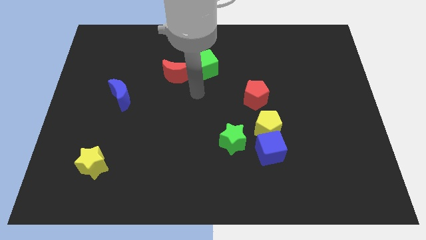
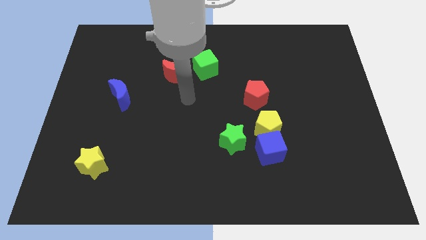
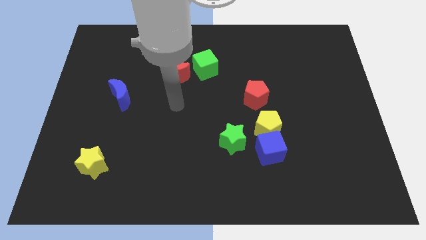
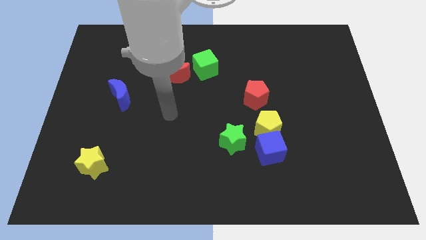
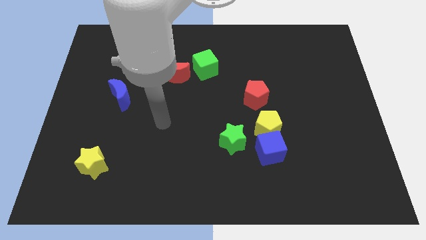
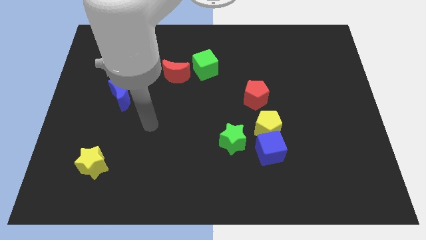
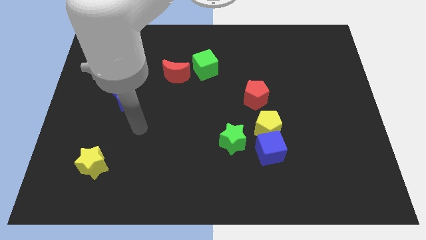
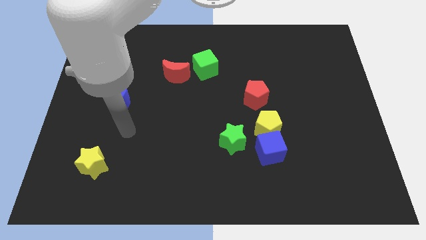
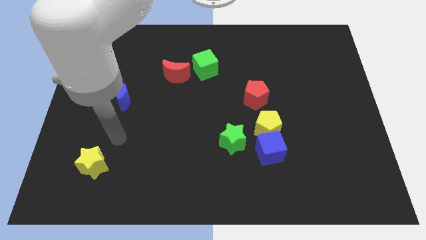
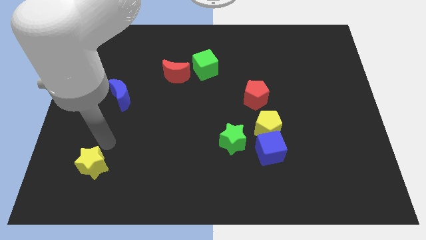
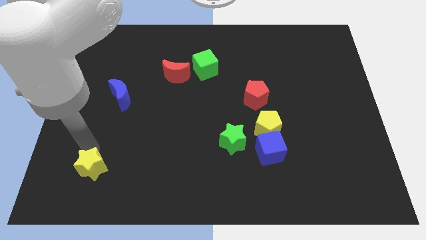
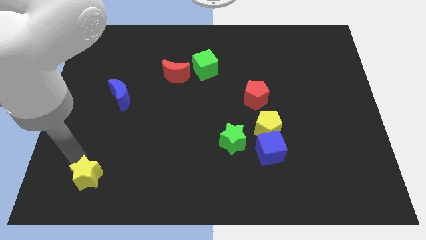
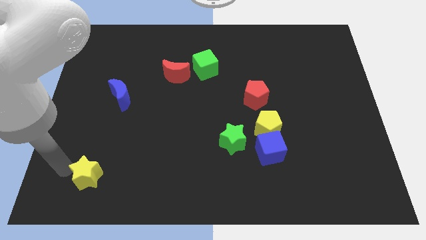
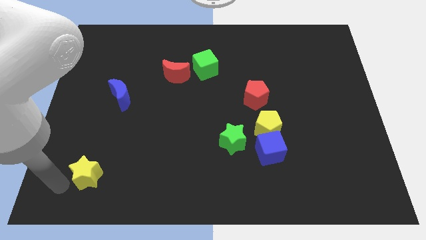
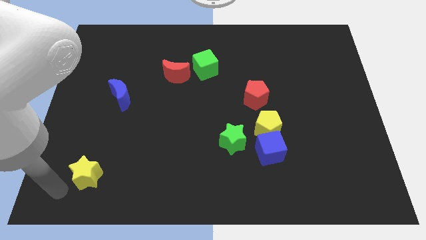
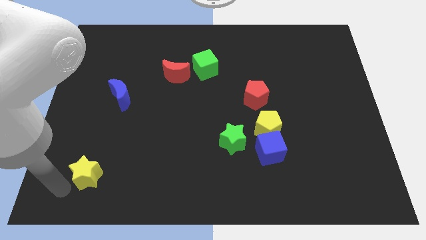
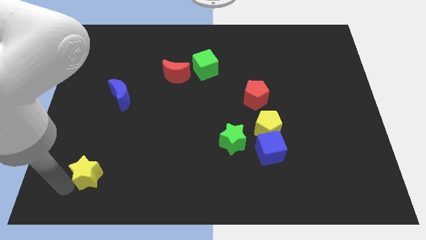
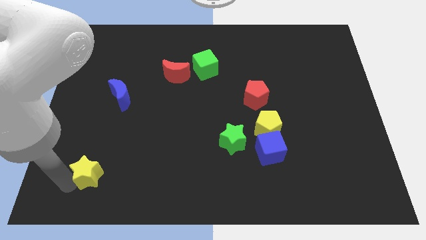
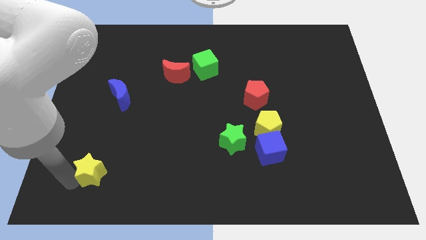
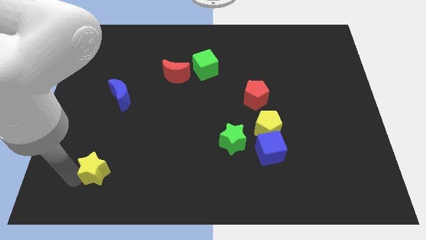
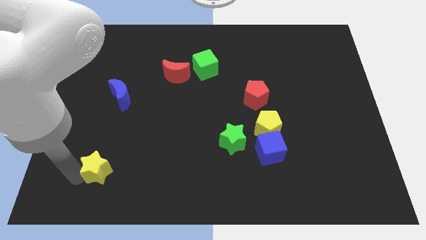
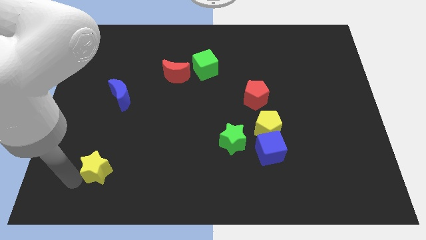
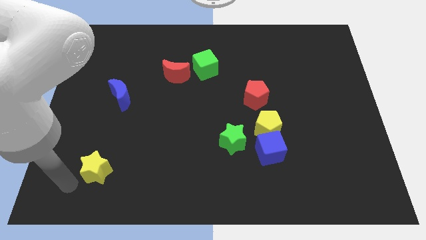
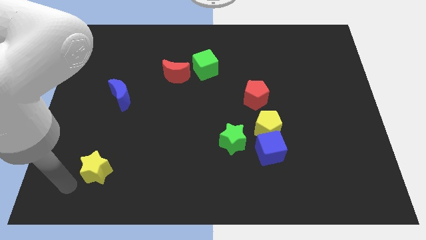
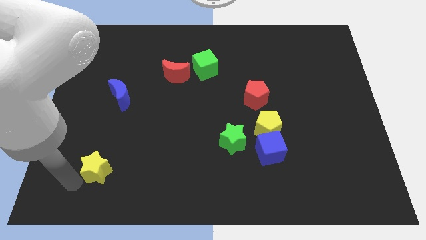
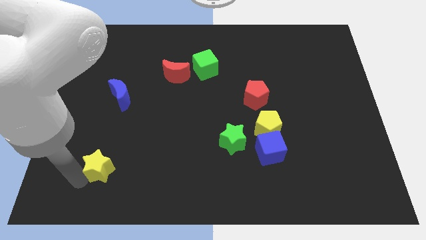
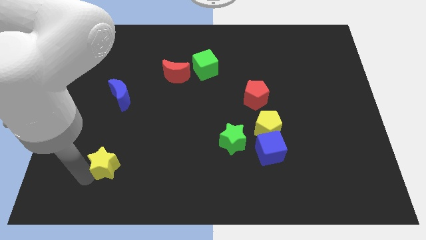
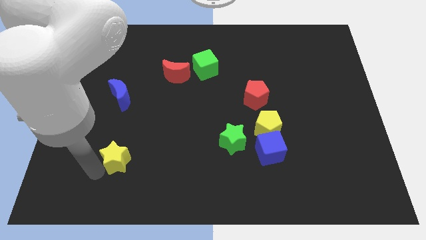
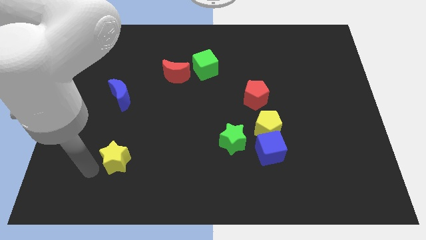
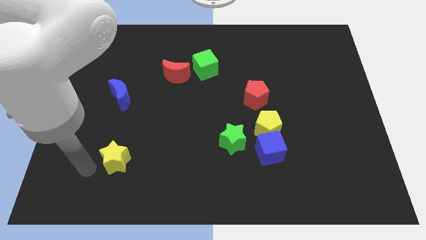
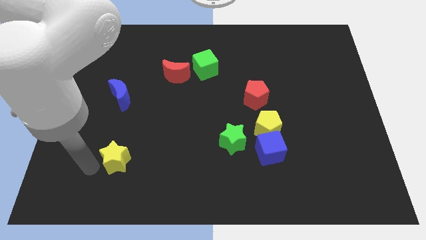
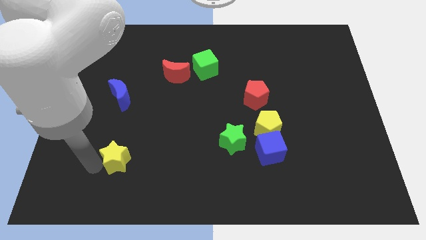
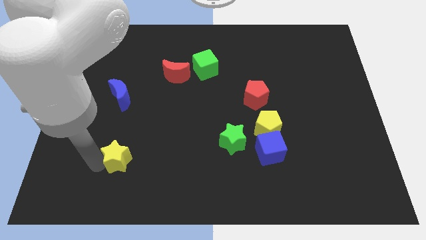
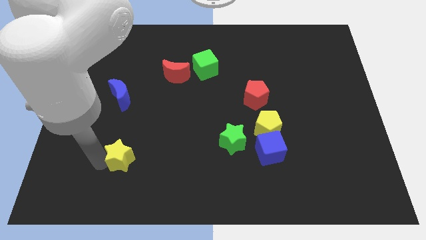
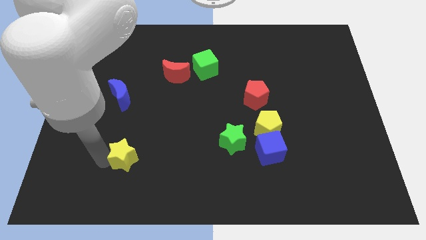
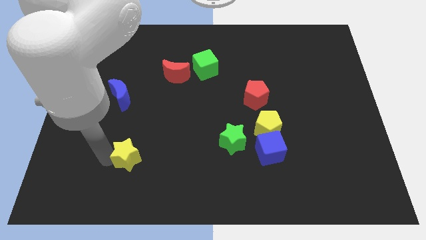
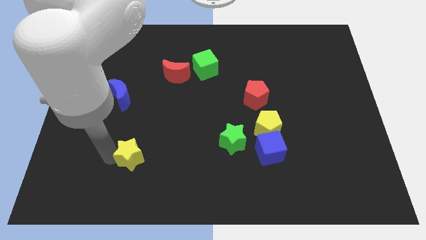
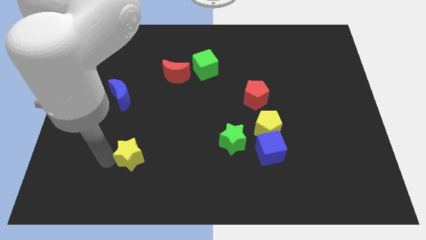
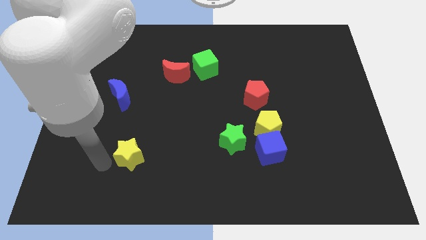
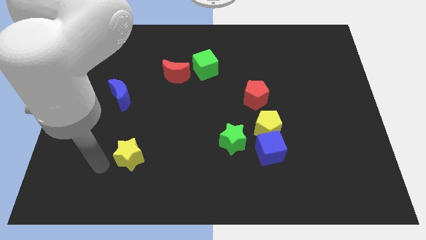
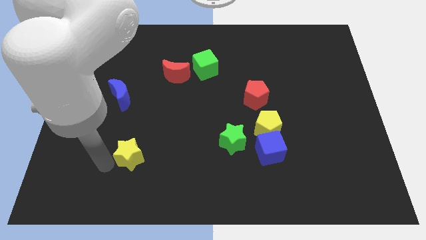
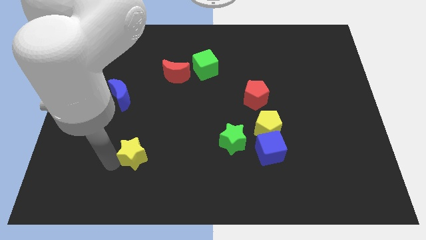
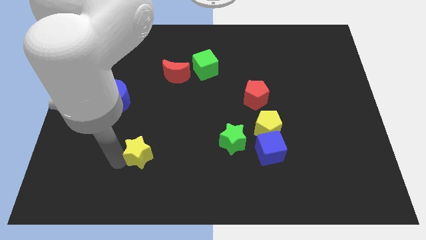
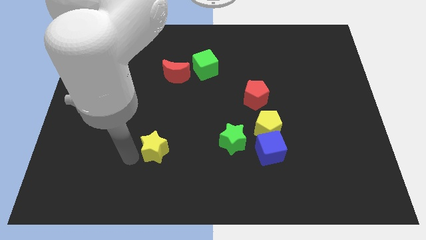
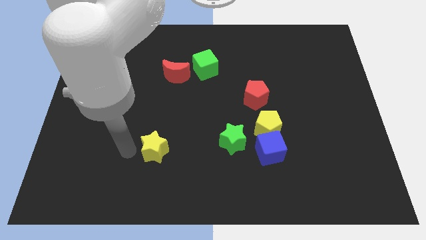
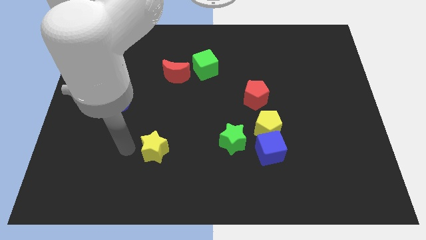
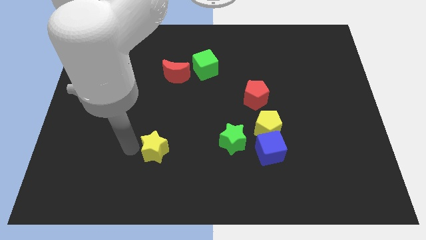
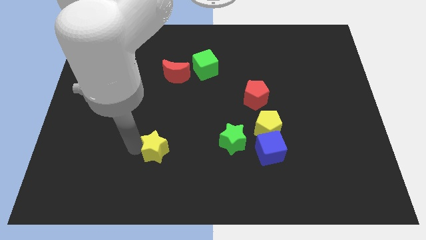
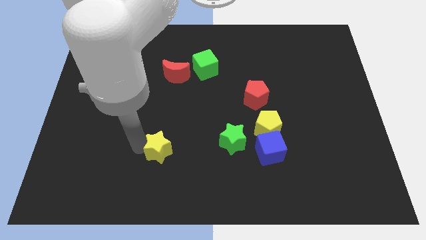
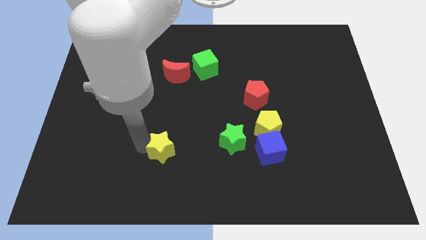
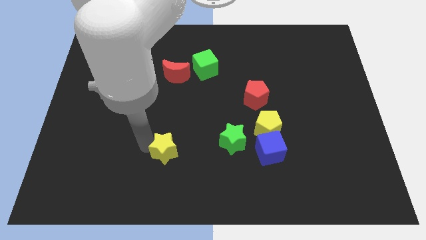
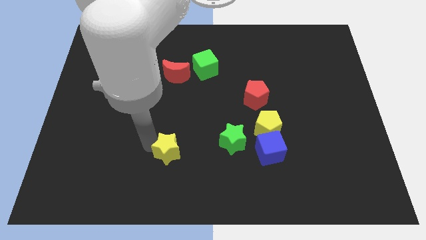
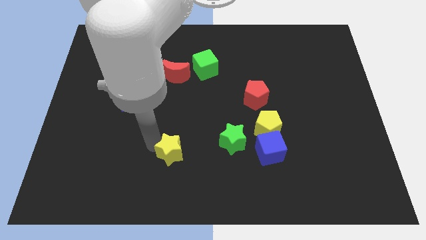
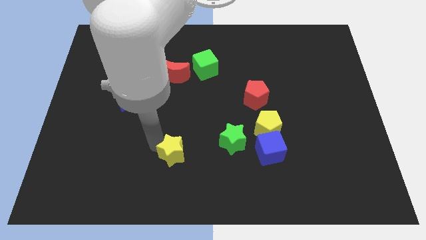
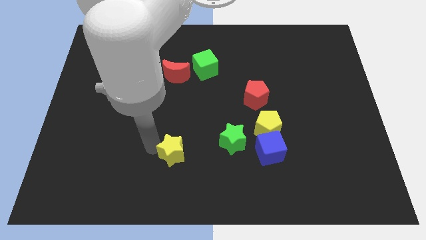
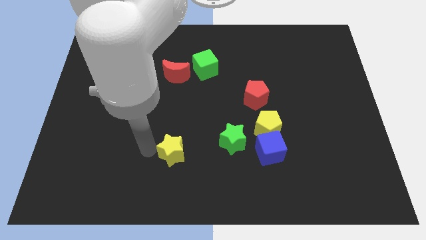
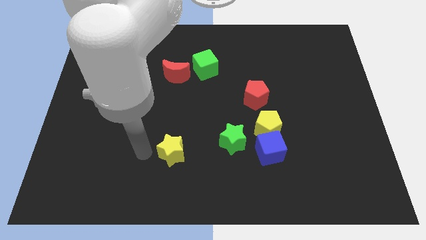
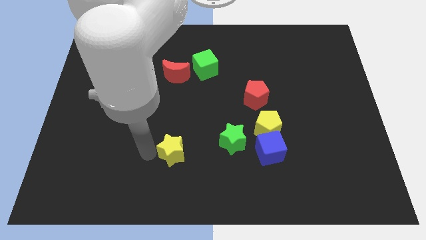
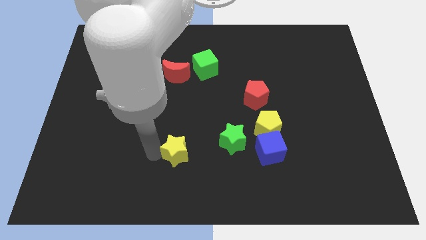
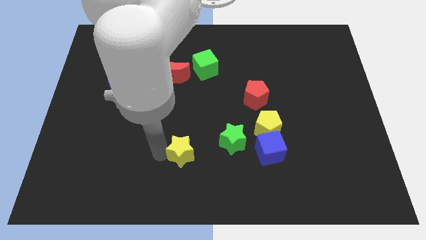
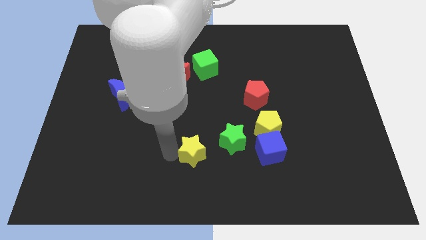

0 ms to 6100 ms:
move the yellow star right

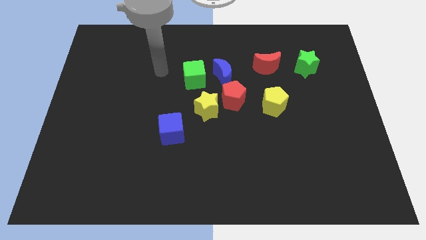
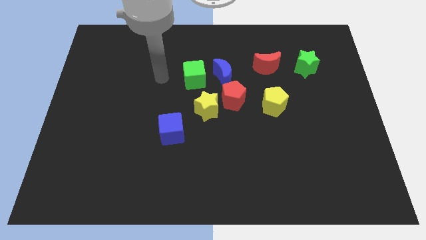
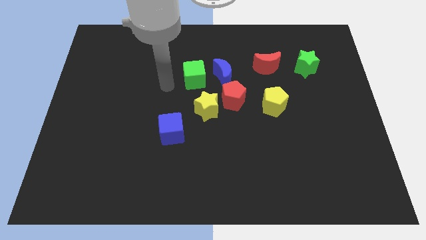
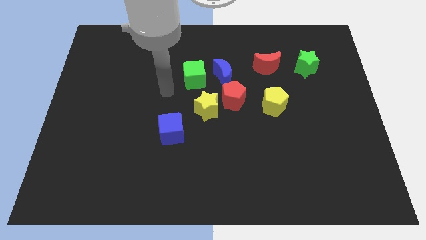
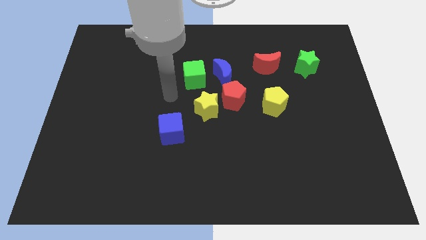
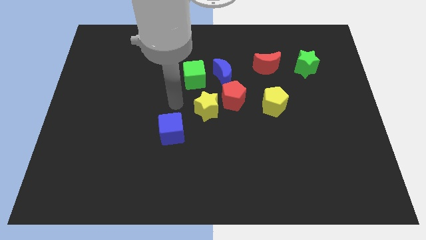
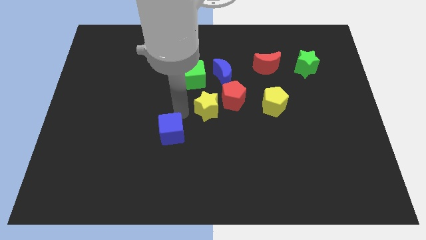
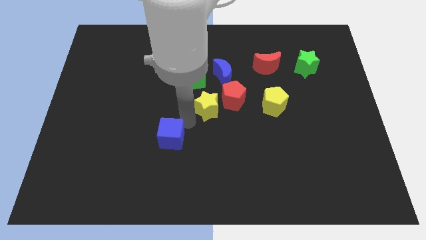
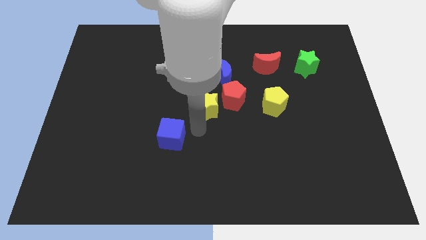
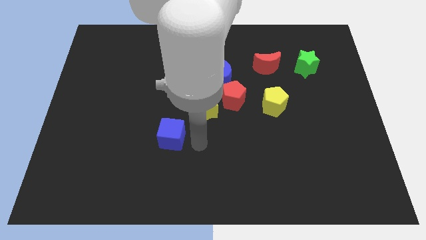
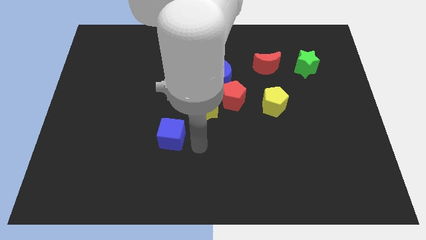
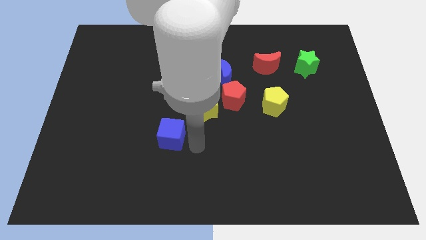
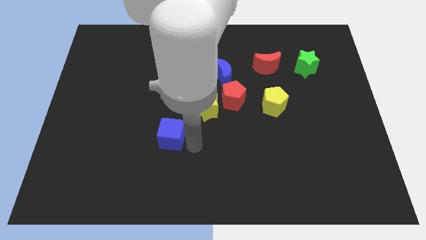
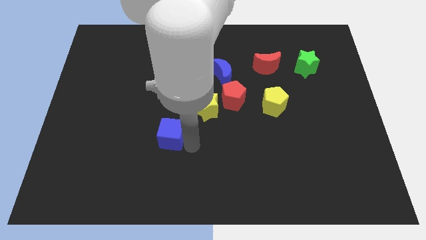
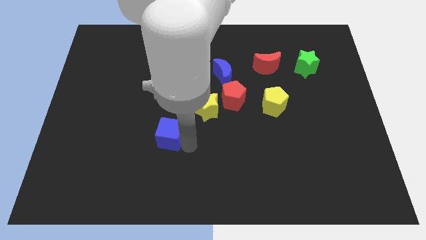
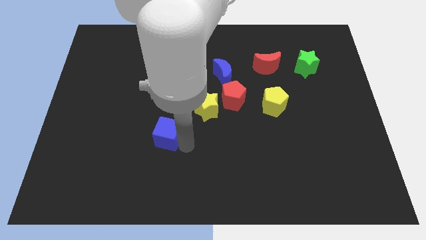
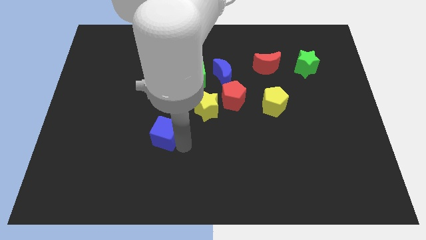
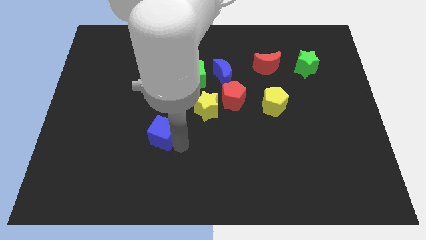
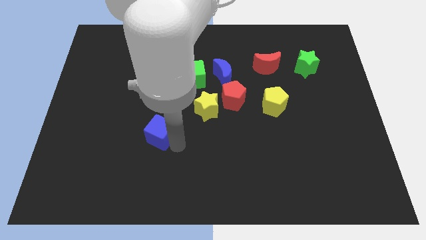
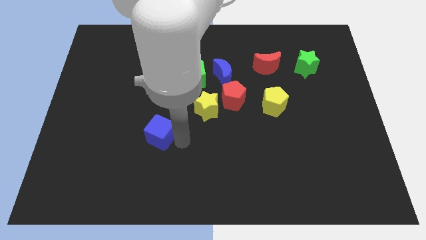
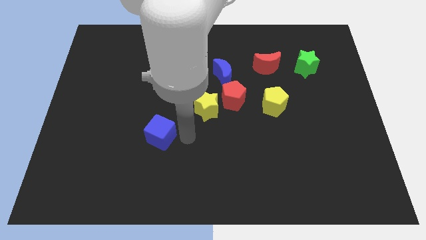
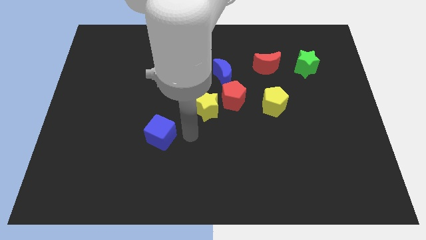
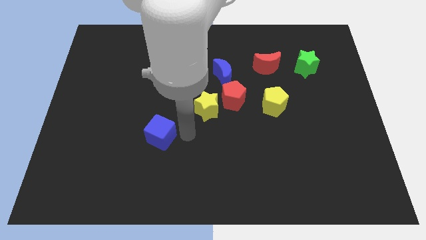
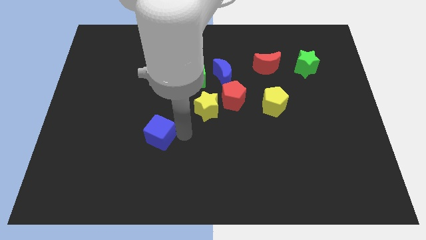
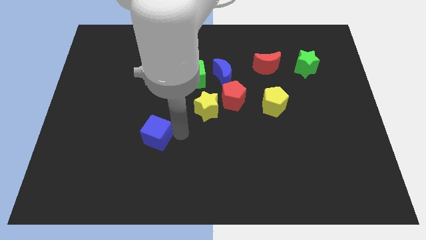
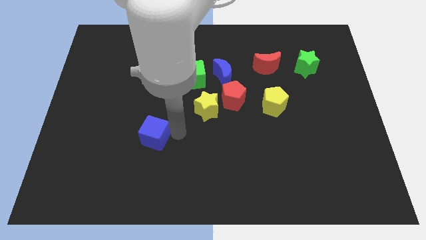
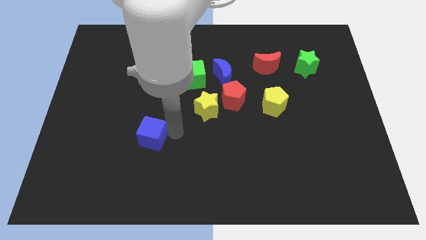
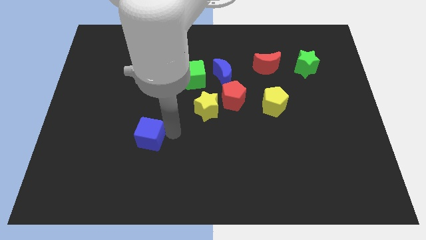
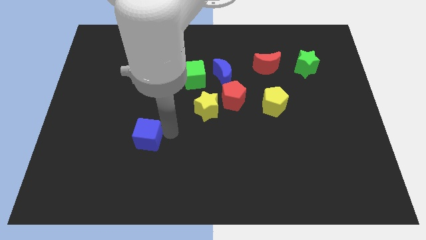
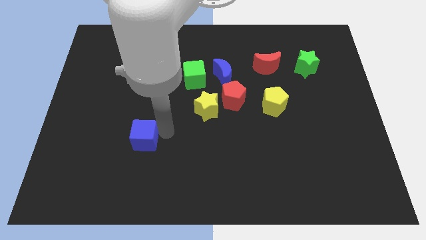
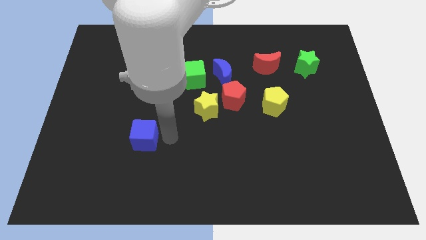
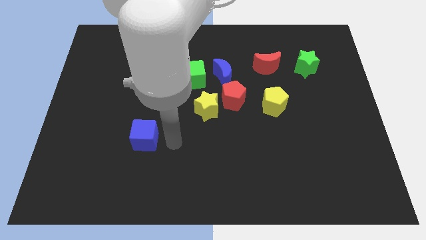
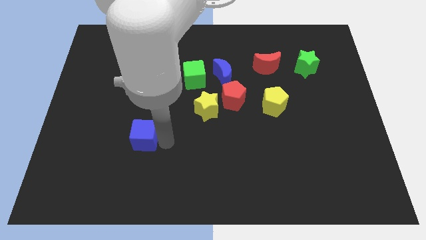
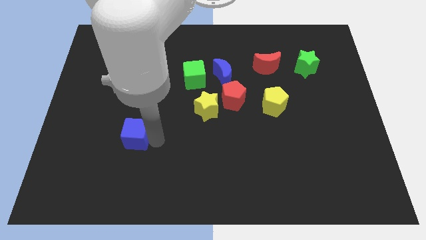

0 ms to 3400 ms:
push the blue cube somewhat left
